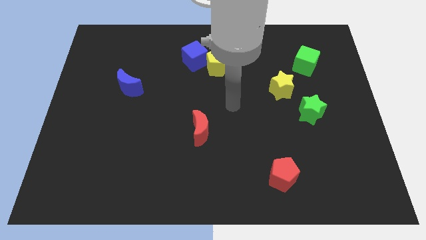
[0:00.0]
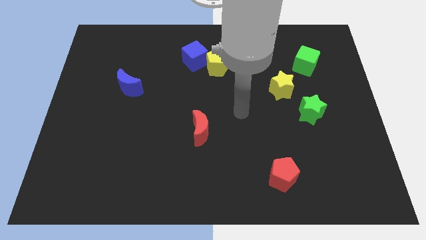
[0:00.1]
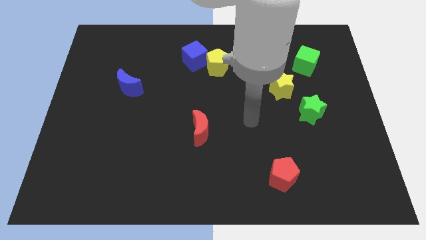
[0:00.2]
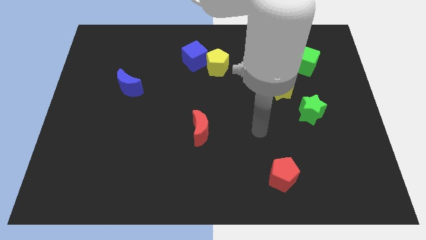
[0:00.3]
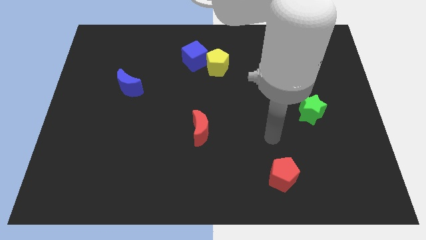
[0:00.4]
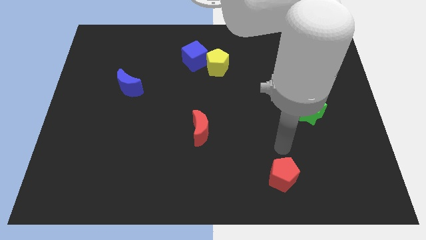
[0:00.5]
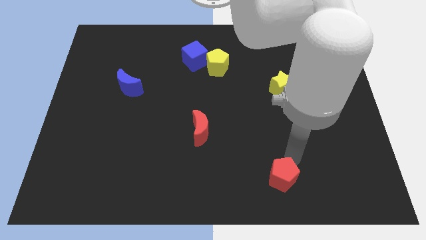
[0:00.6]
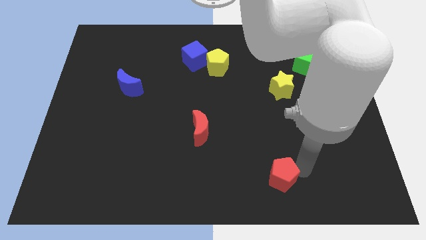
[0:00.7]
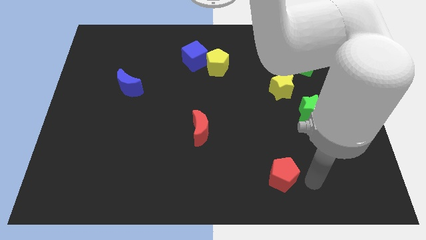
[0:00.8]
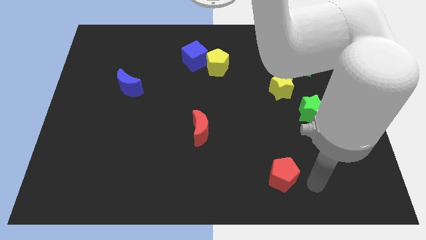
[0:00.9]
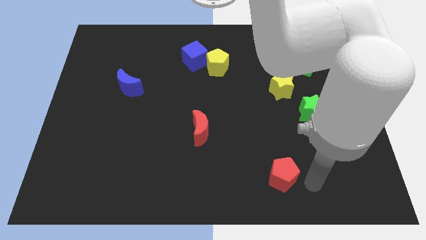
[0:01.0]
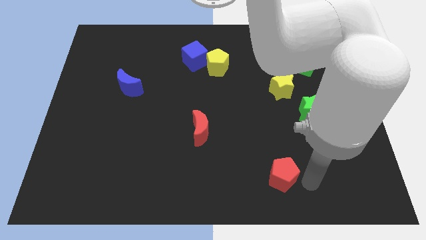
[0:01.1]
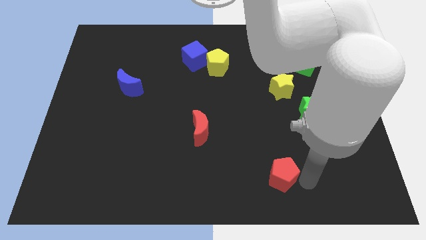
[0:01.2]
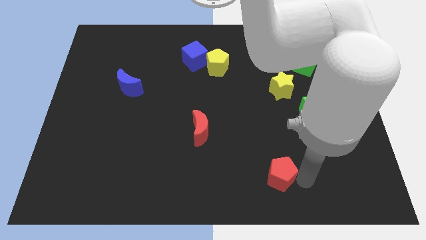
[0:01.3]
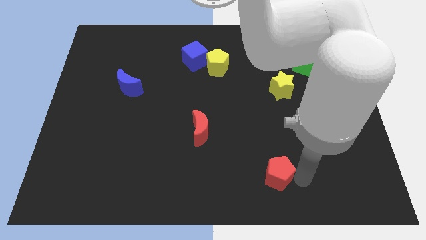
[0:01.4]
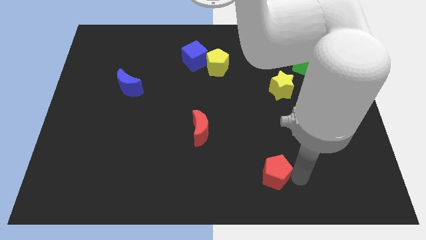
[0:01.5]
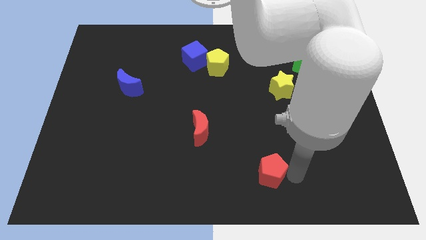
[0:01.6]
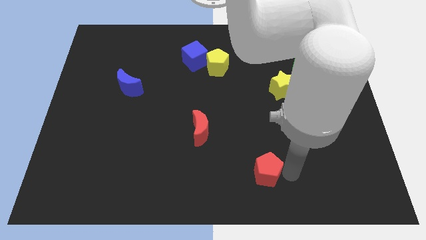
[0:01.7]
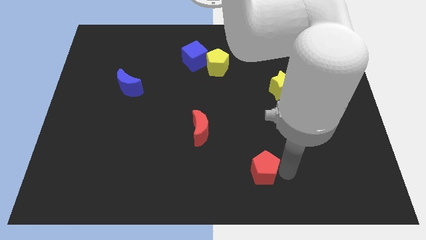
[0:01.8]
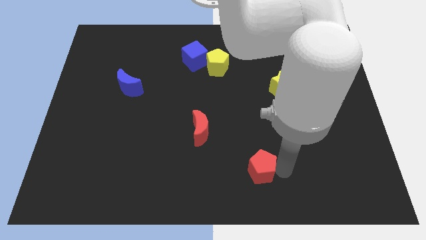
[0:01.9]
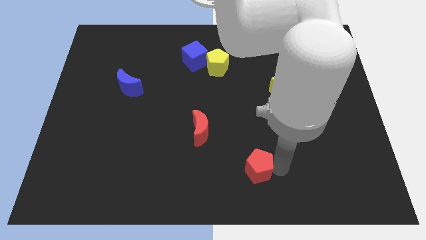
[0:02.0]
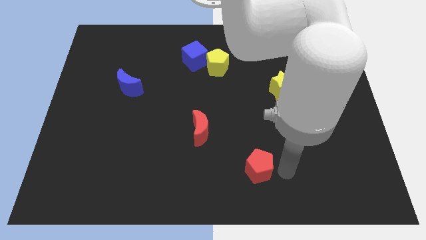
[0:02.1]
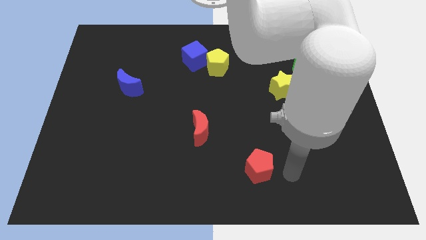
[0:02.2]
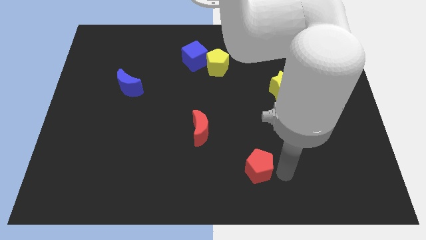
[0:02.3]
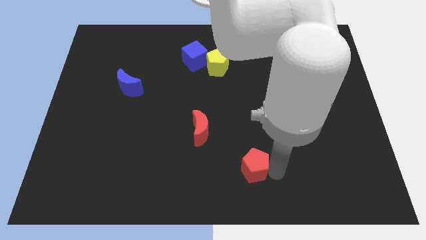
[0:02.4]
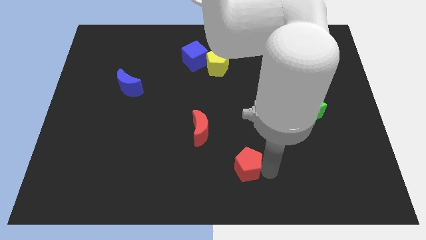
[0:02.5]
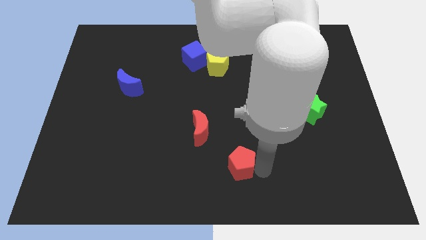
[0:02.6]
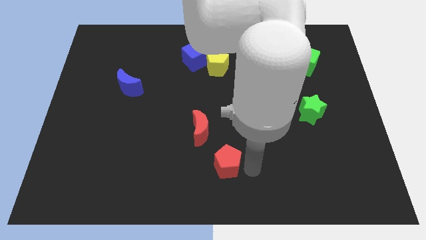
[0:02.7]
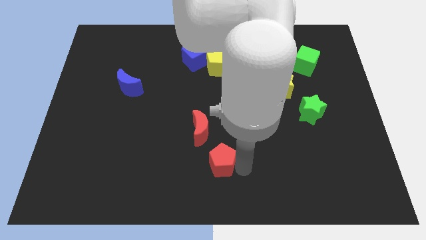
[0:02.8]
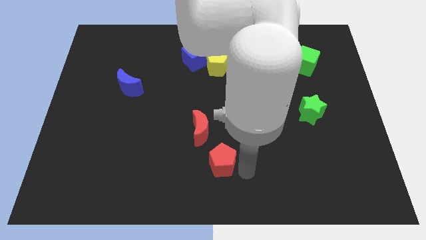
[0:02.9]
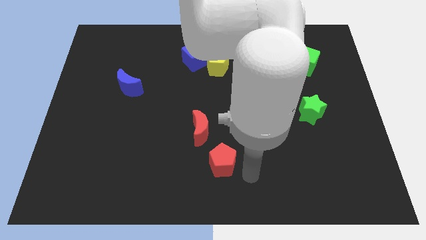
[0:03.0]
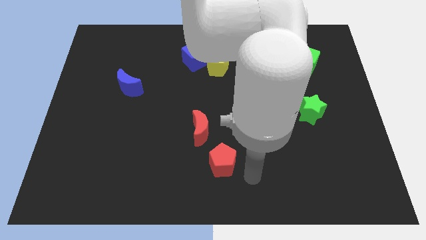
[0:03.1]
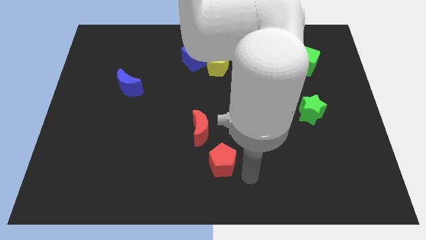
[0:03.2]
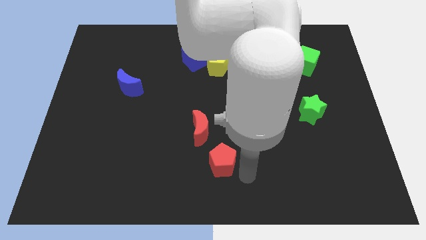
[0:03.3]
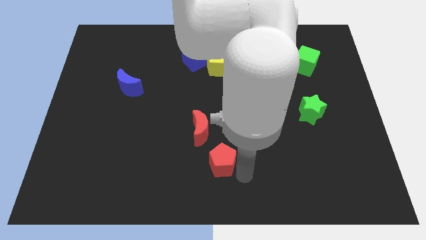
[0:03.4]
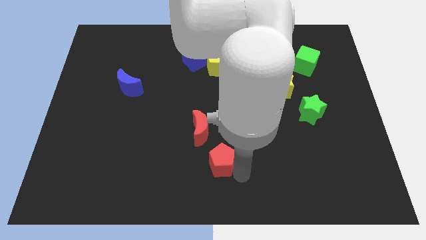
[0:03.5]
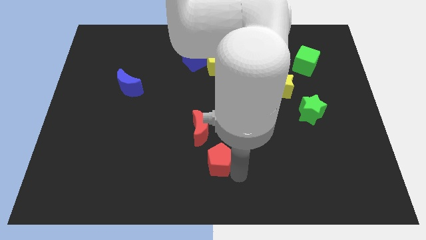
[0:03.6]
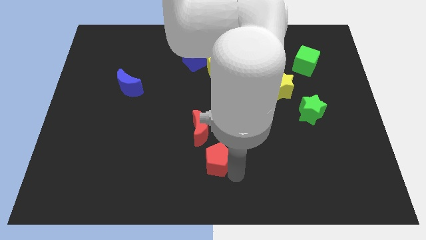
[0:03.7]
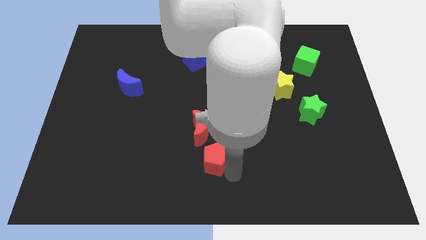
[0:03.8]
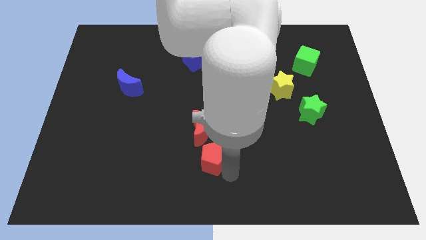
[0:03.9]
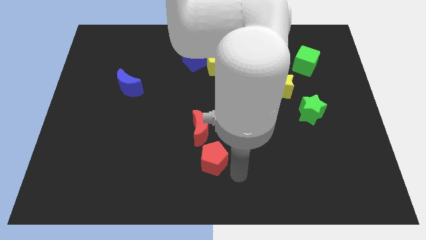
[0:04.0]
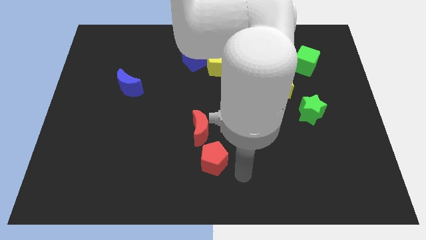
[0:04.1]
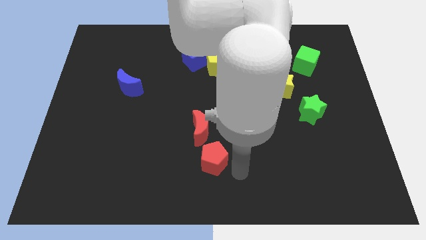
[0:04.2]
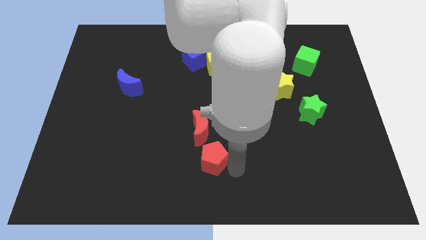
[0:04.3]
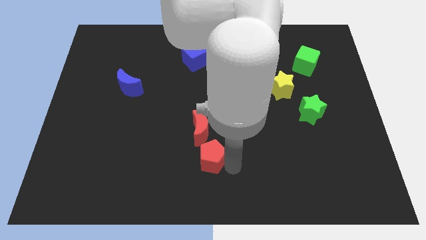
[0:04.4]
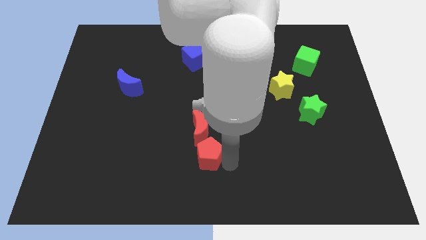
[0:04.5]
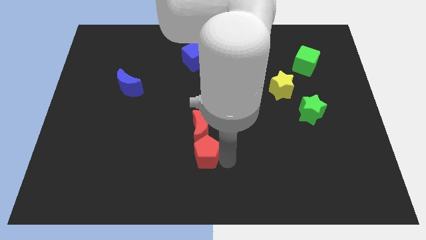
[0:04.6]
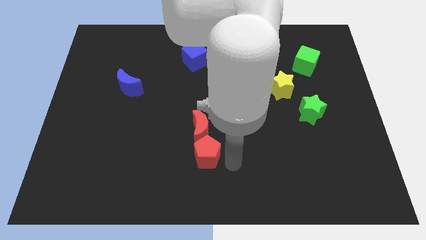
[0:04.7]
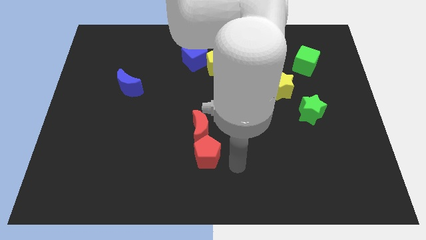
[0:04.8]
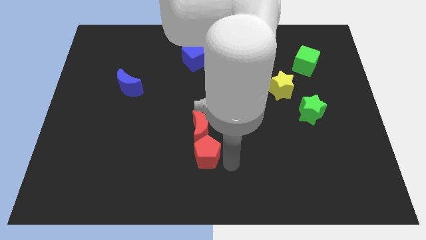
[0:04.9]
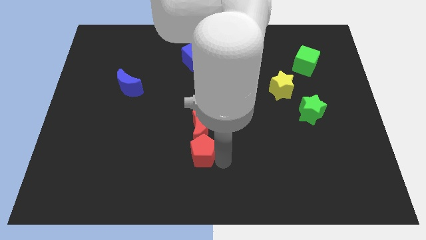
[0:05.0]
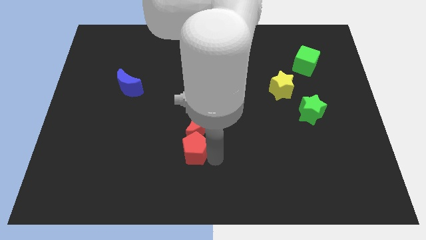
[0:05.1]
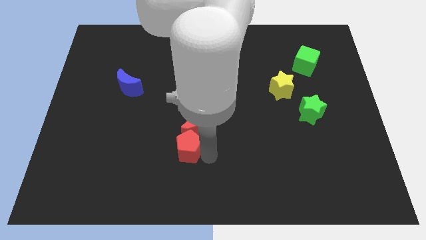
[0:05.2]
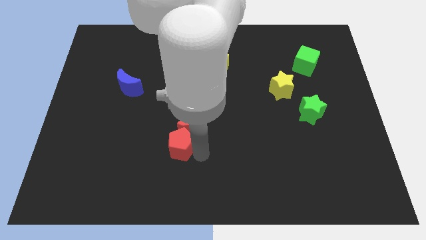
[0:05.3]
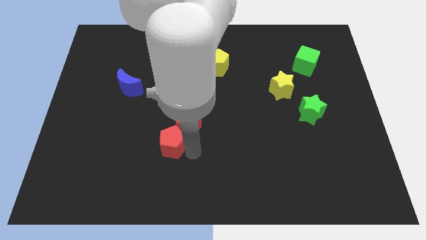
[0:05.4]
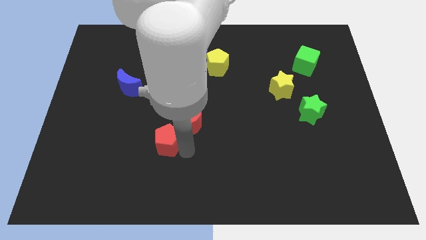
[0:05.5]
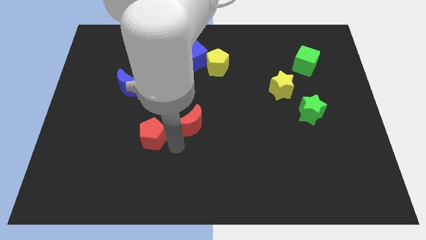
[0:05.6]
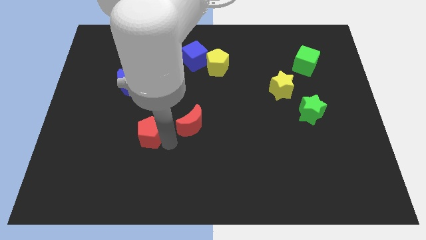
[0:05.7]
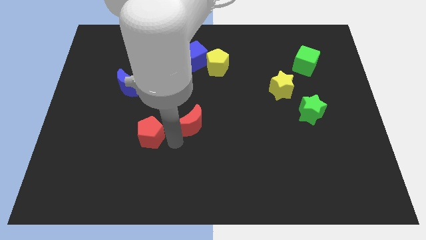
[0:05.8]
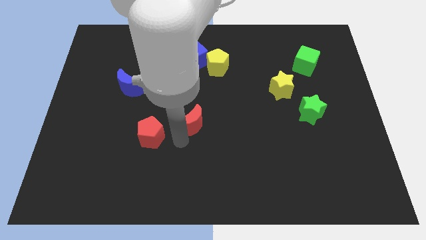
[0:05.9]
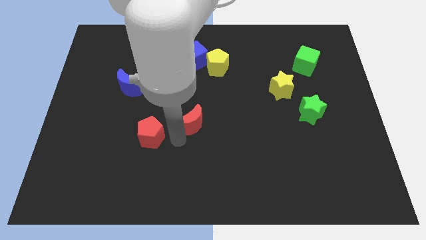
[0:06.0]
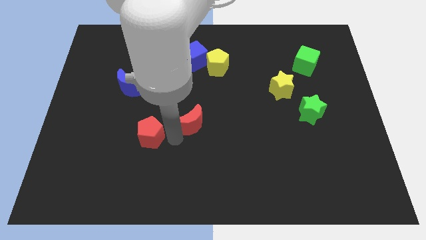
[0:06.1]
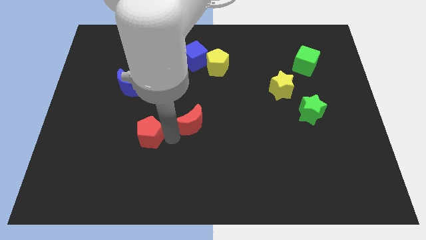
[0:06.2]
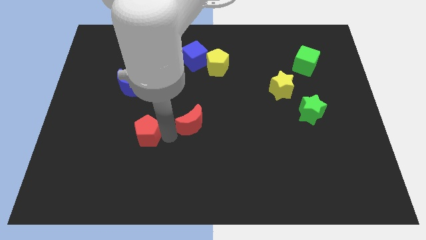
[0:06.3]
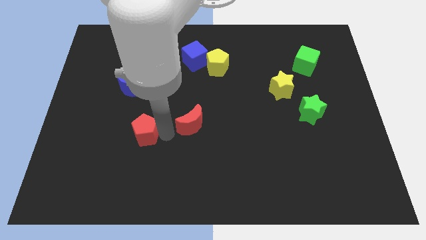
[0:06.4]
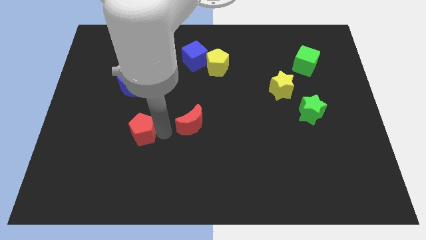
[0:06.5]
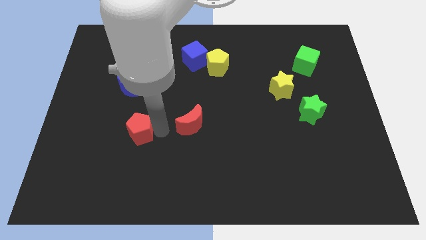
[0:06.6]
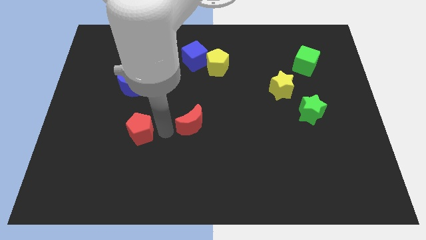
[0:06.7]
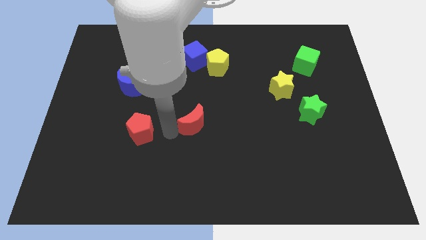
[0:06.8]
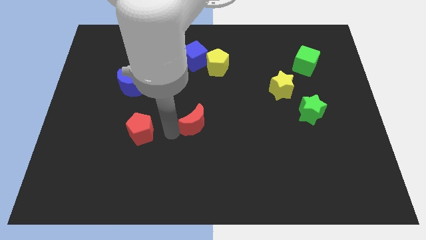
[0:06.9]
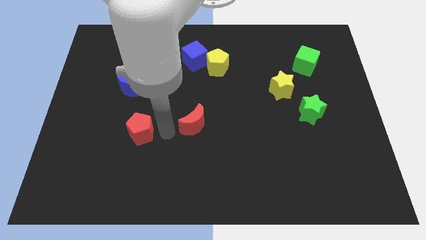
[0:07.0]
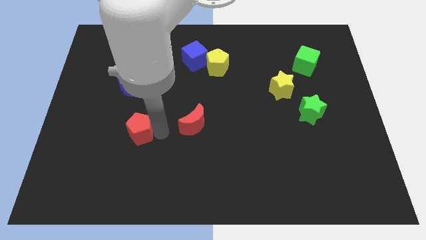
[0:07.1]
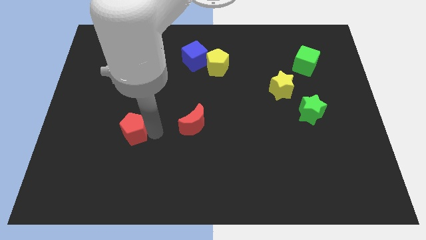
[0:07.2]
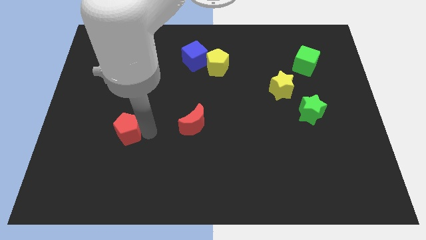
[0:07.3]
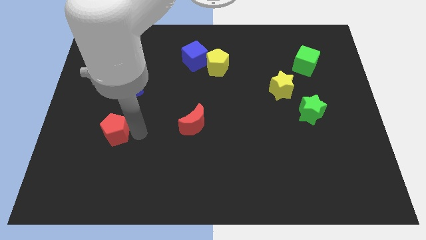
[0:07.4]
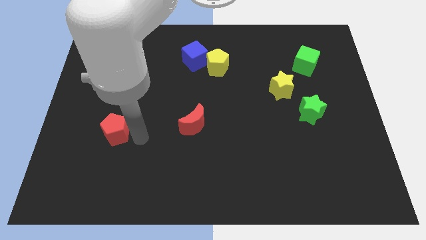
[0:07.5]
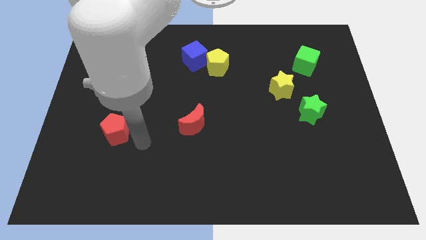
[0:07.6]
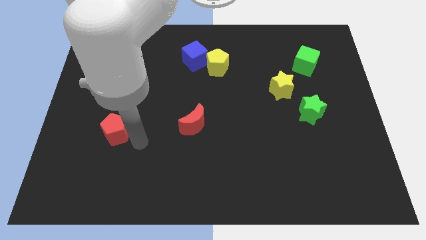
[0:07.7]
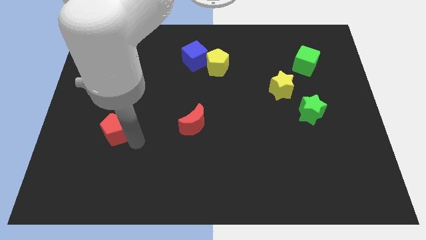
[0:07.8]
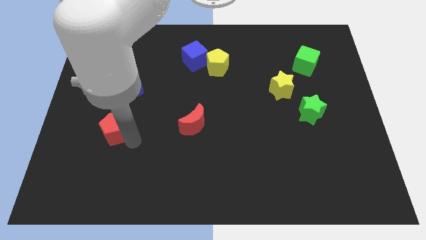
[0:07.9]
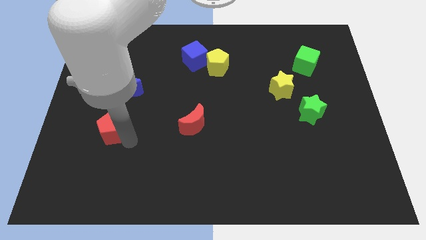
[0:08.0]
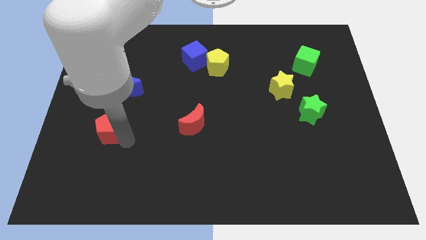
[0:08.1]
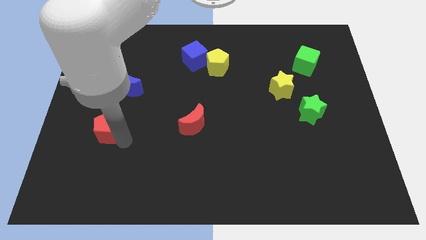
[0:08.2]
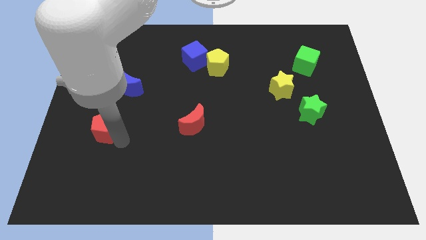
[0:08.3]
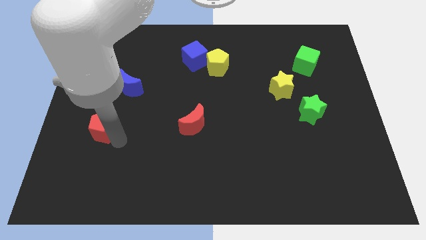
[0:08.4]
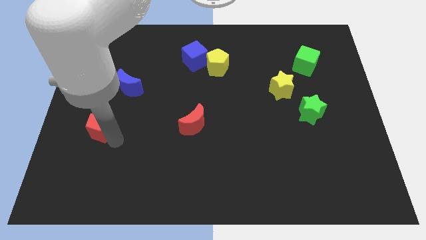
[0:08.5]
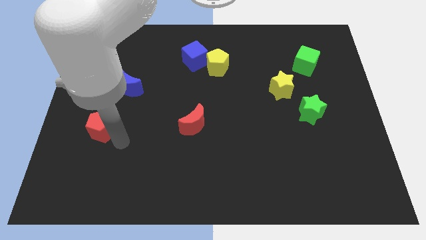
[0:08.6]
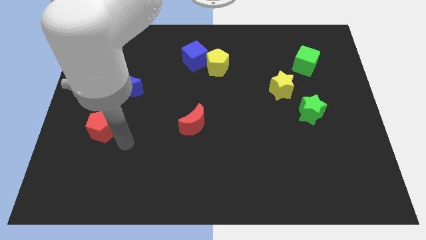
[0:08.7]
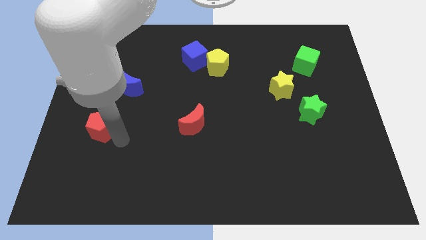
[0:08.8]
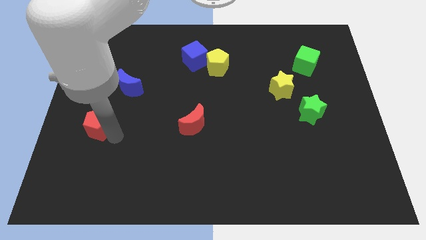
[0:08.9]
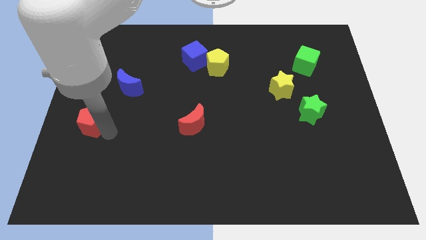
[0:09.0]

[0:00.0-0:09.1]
slide the red pentagon to the left side of the board
